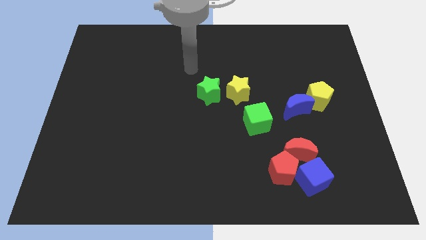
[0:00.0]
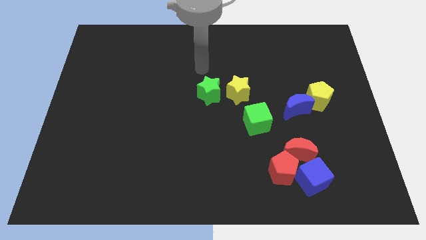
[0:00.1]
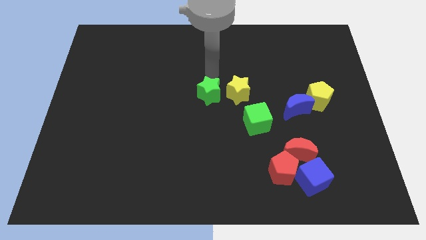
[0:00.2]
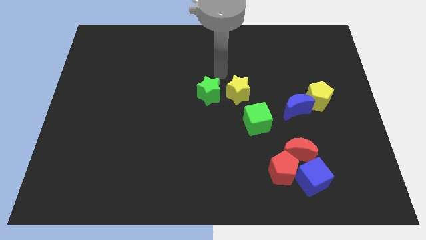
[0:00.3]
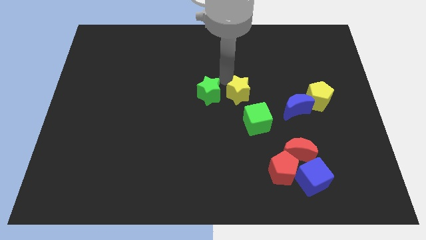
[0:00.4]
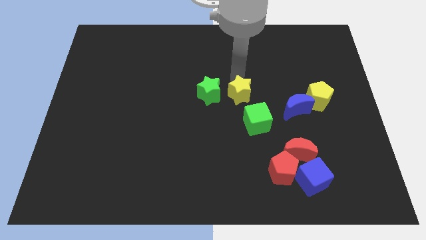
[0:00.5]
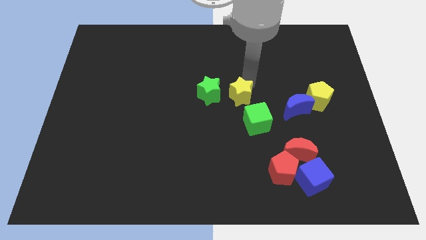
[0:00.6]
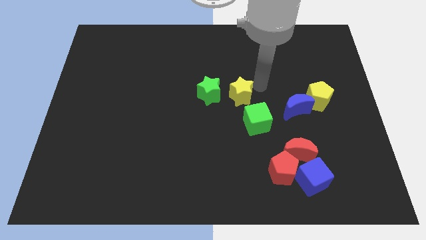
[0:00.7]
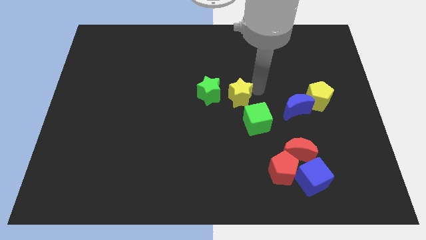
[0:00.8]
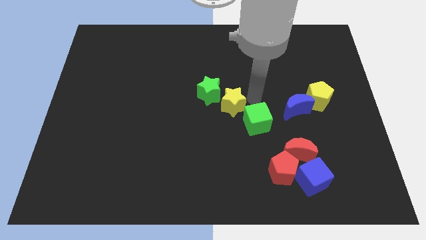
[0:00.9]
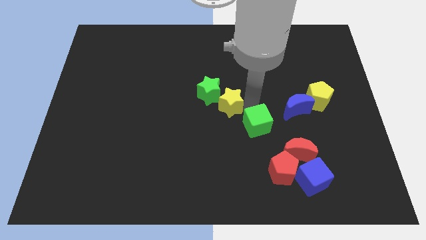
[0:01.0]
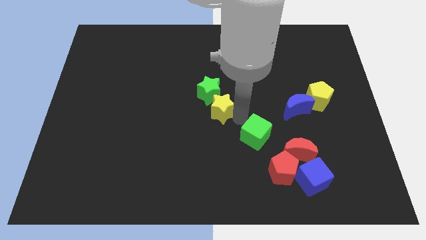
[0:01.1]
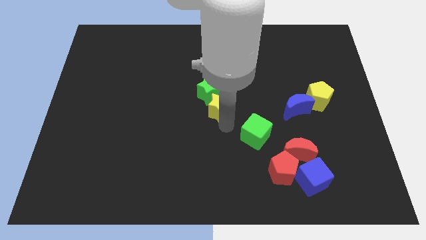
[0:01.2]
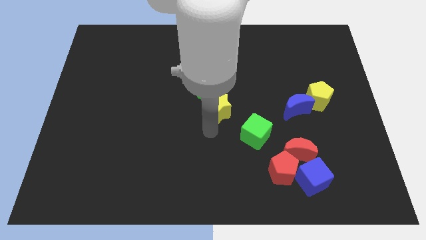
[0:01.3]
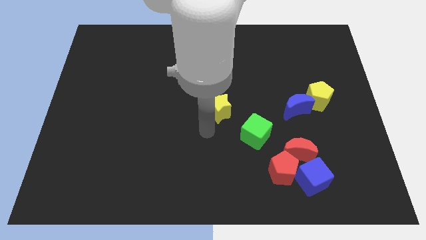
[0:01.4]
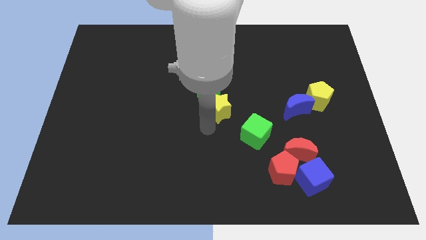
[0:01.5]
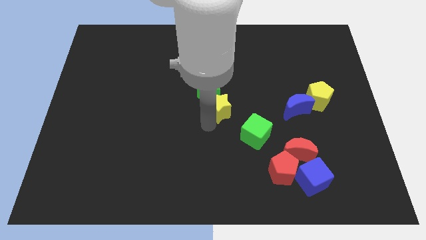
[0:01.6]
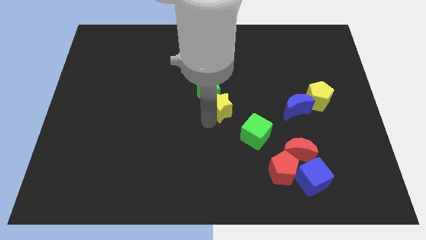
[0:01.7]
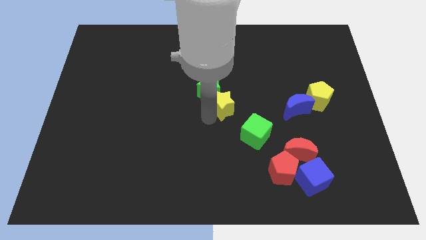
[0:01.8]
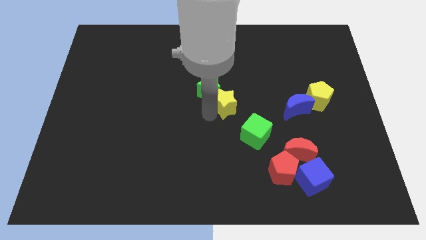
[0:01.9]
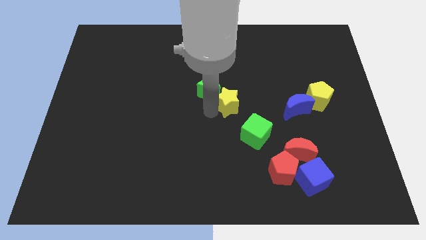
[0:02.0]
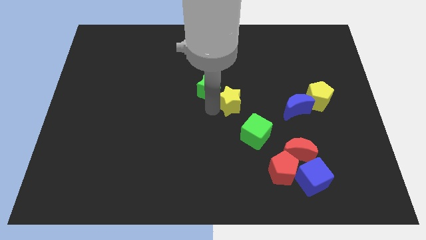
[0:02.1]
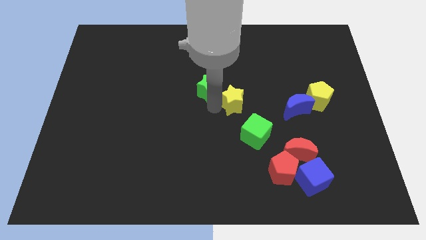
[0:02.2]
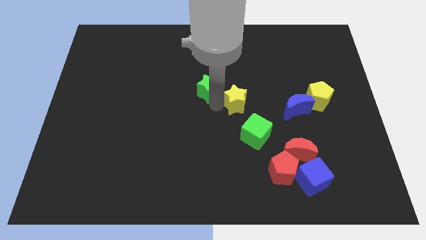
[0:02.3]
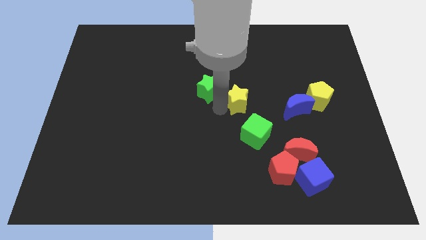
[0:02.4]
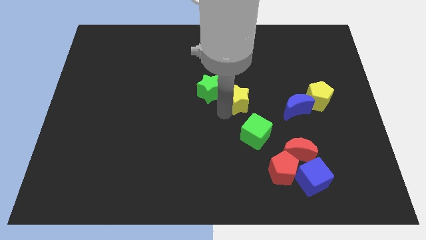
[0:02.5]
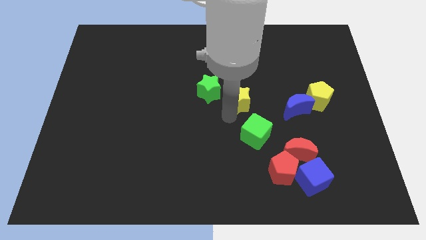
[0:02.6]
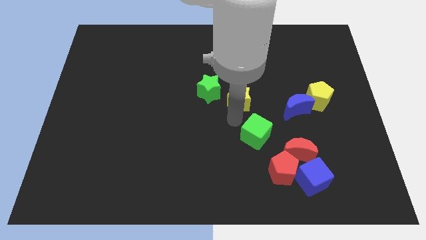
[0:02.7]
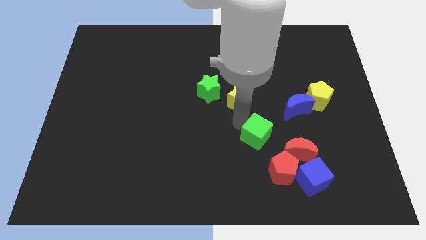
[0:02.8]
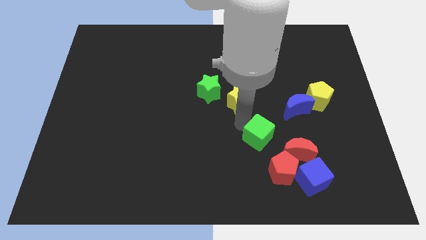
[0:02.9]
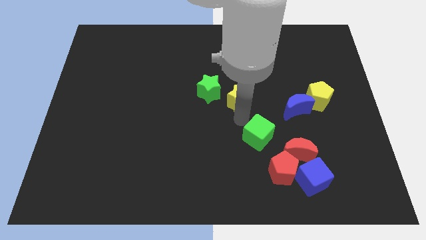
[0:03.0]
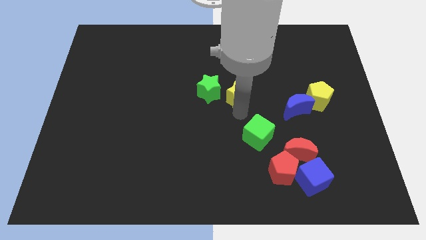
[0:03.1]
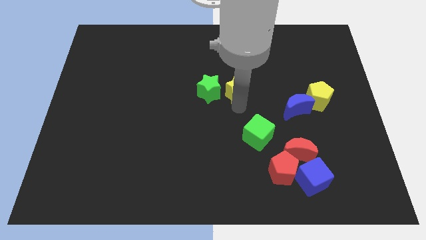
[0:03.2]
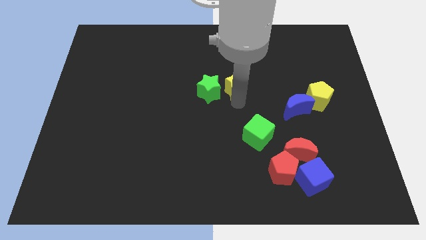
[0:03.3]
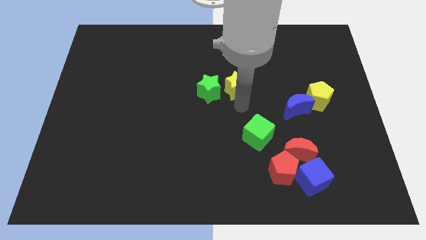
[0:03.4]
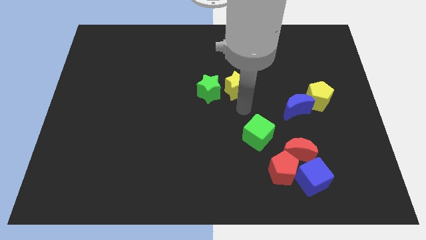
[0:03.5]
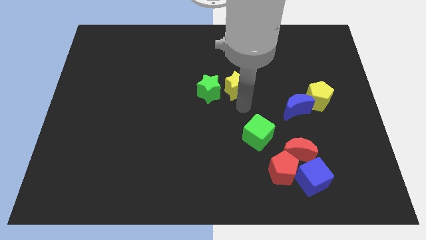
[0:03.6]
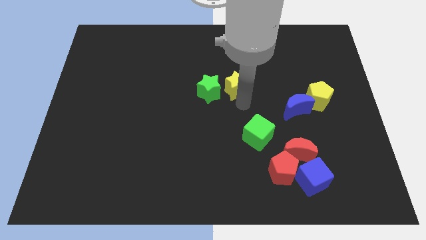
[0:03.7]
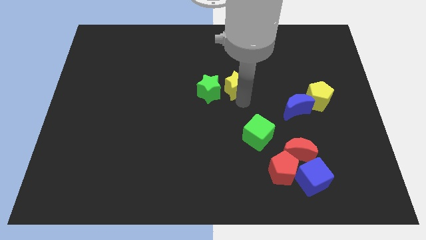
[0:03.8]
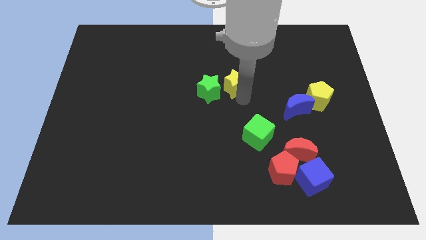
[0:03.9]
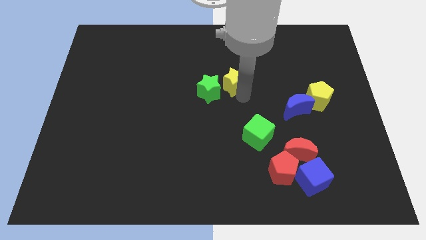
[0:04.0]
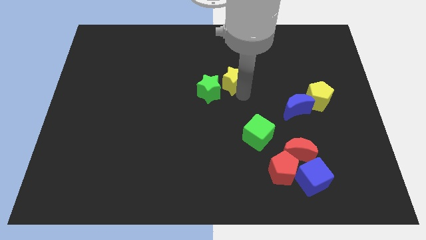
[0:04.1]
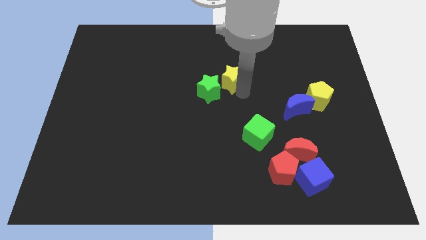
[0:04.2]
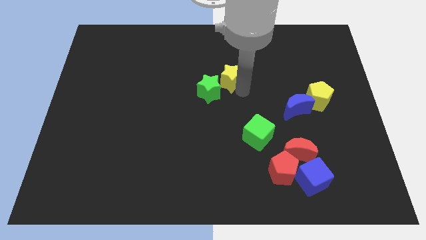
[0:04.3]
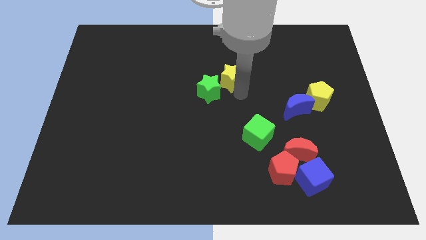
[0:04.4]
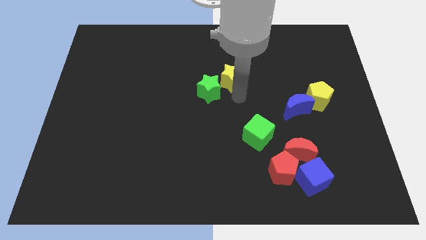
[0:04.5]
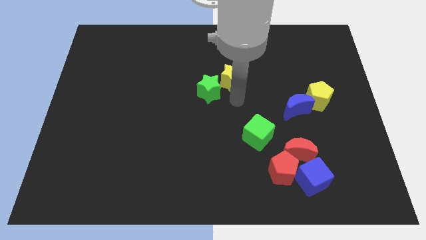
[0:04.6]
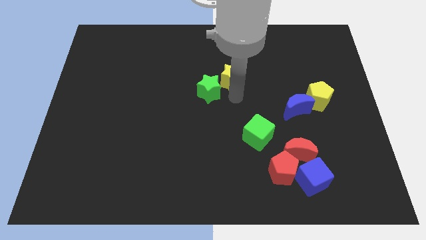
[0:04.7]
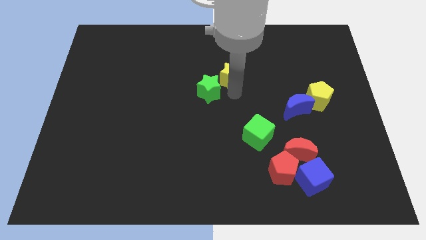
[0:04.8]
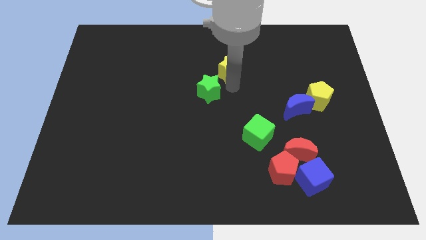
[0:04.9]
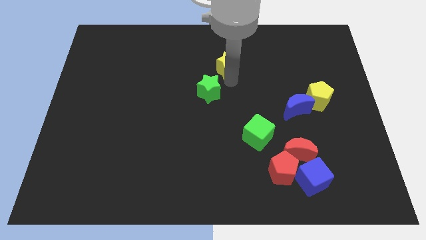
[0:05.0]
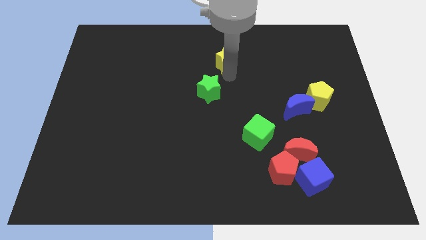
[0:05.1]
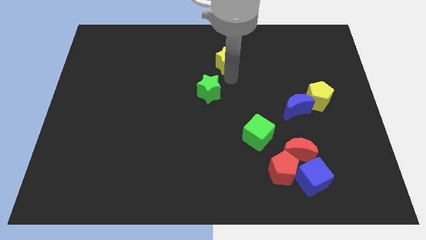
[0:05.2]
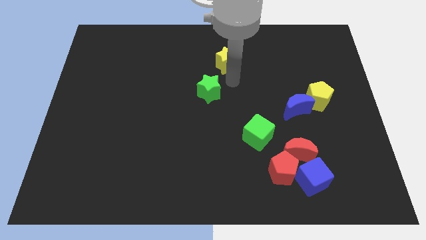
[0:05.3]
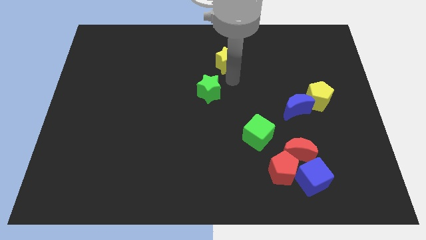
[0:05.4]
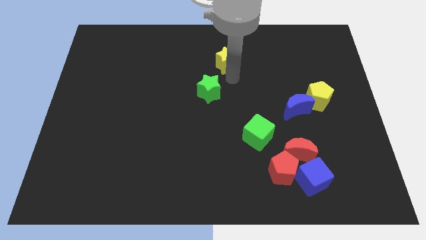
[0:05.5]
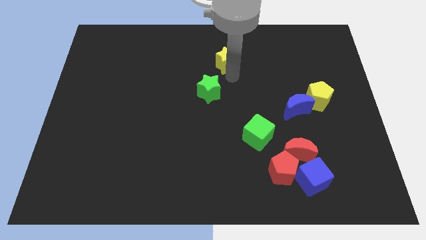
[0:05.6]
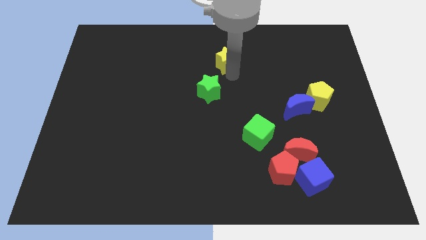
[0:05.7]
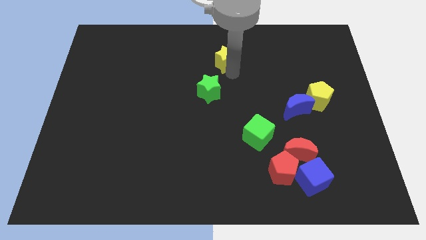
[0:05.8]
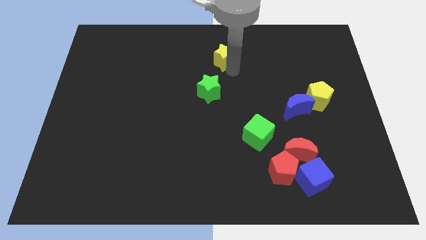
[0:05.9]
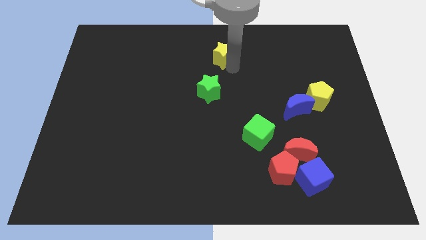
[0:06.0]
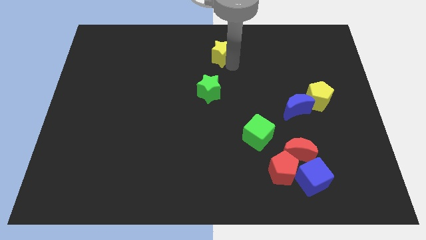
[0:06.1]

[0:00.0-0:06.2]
push the yellow star to the top side

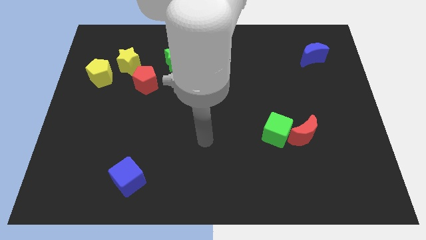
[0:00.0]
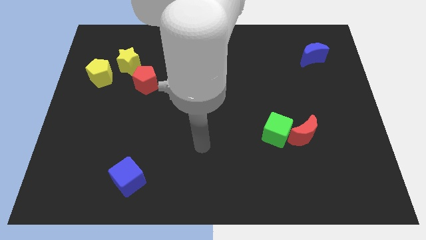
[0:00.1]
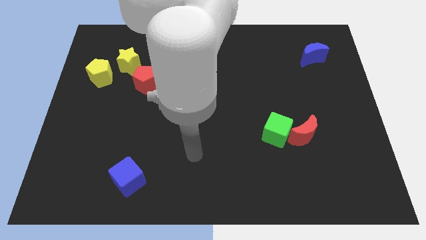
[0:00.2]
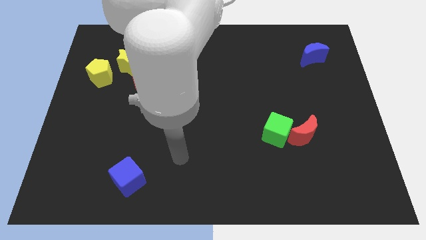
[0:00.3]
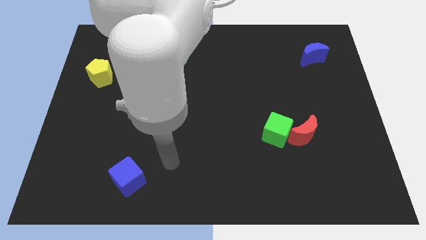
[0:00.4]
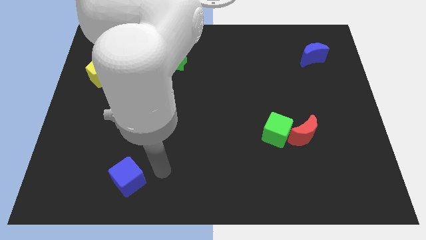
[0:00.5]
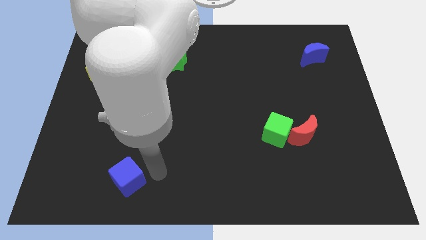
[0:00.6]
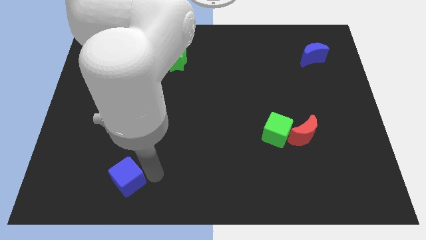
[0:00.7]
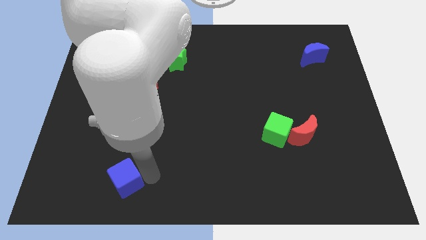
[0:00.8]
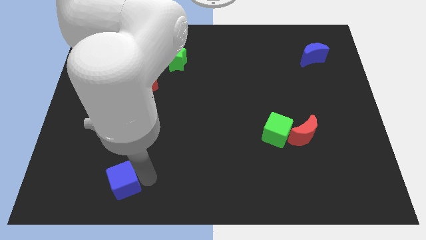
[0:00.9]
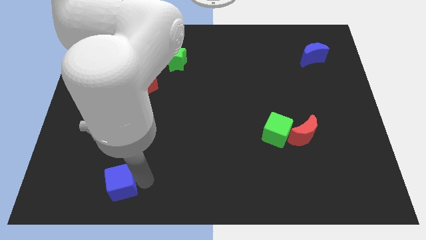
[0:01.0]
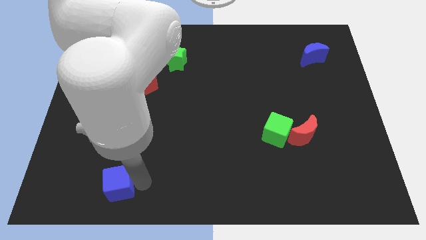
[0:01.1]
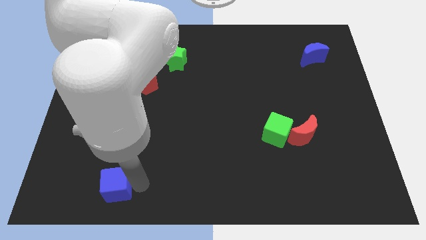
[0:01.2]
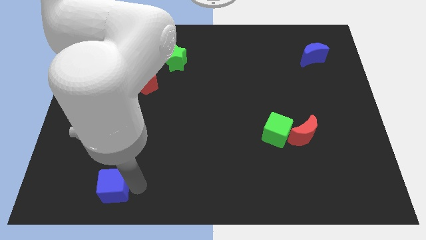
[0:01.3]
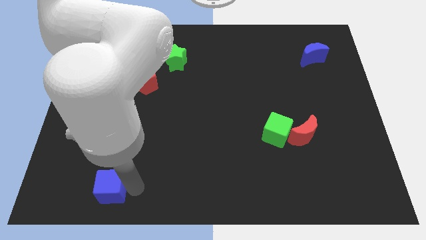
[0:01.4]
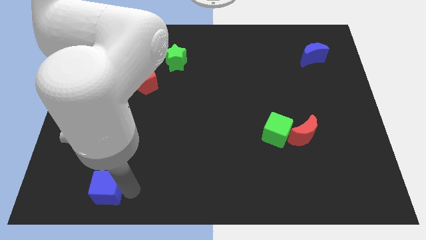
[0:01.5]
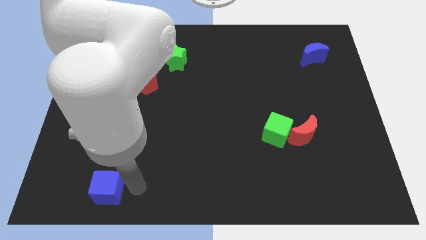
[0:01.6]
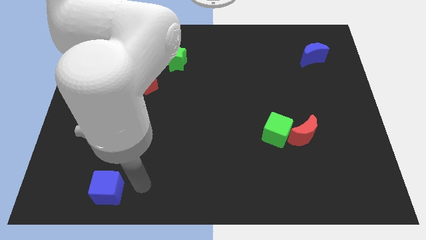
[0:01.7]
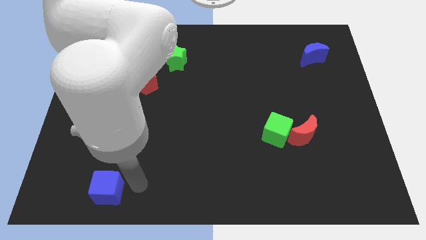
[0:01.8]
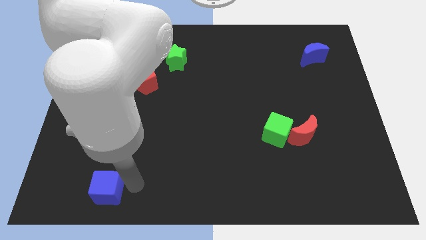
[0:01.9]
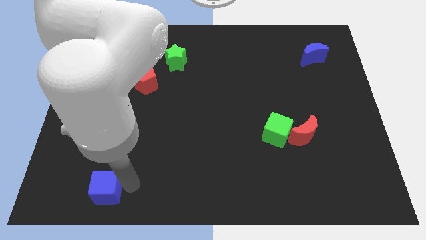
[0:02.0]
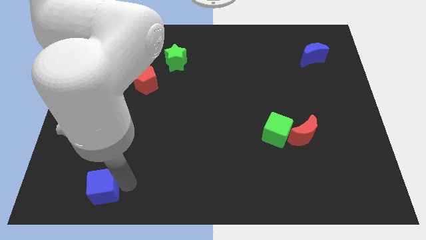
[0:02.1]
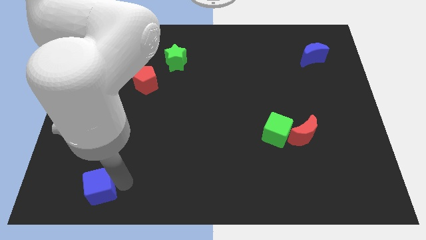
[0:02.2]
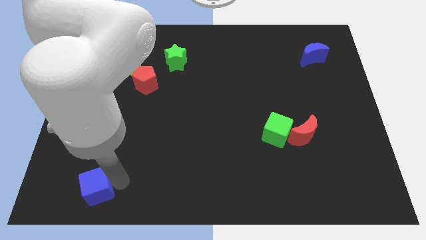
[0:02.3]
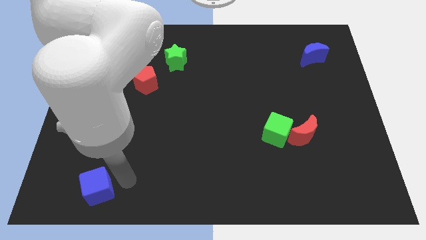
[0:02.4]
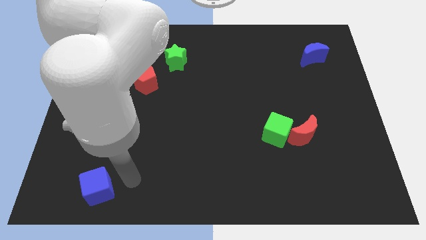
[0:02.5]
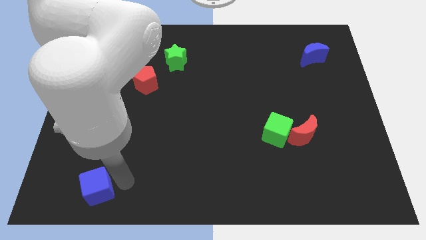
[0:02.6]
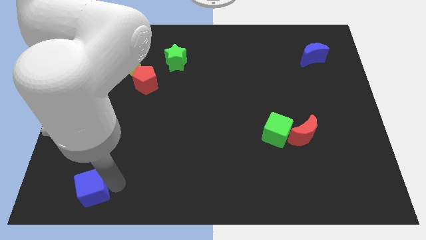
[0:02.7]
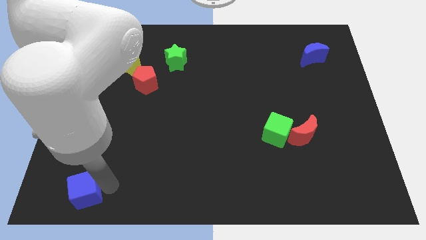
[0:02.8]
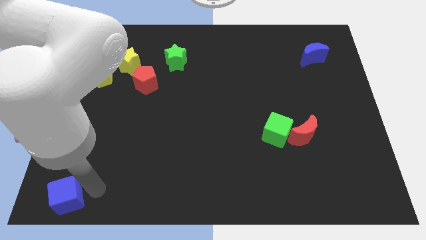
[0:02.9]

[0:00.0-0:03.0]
put the blue cube to the bottom left corner
